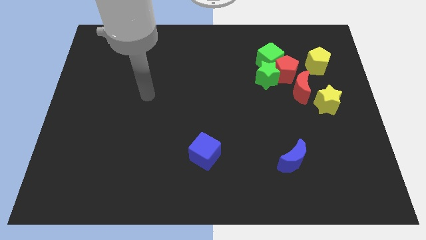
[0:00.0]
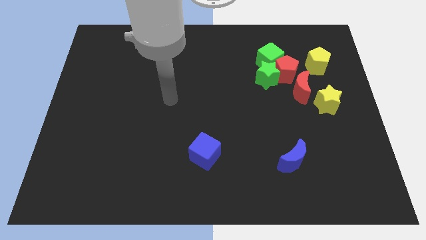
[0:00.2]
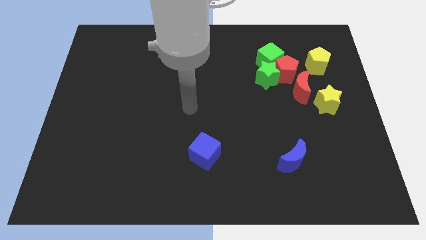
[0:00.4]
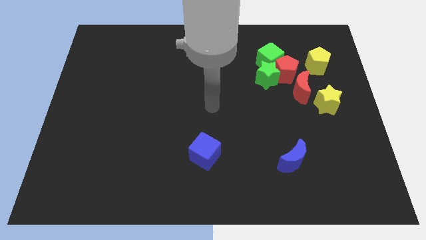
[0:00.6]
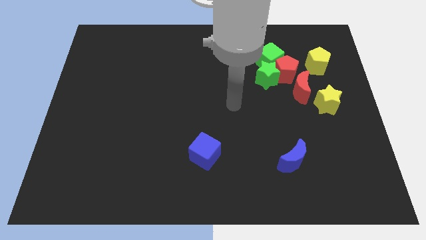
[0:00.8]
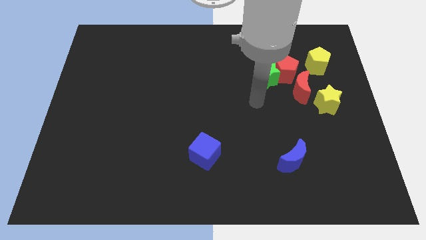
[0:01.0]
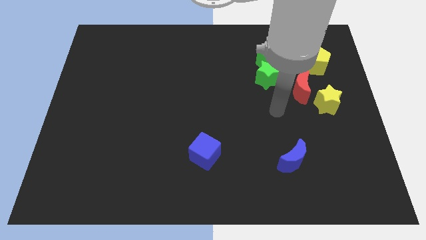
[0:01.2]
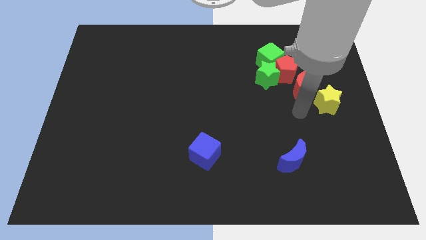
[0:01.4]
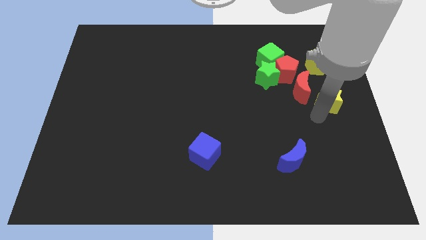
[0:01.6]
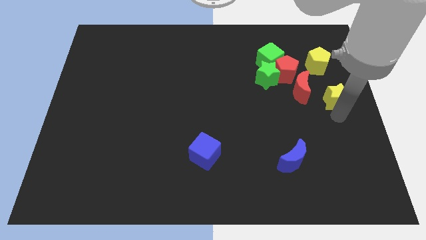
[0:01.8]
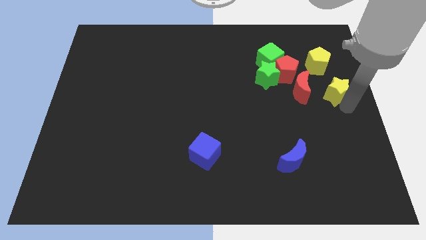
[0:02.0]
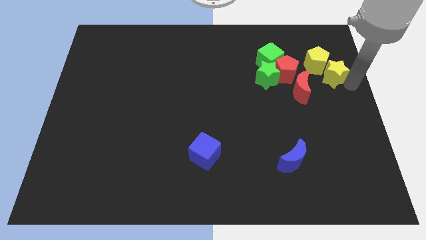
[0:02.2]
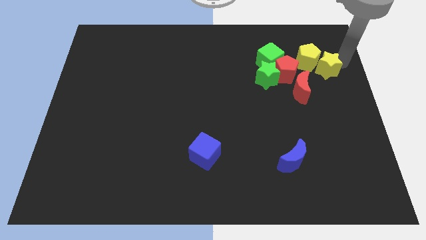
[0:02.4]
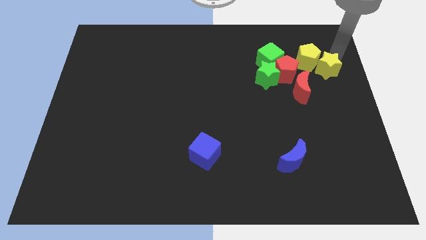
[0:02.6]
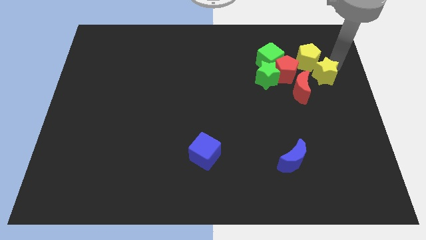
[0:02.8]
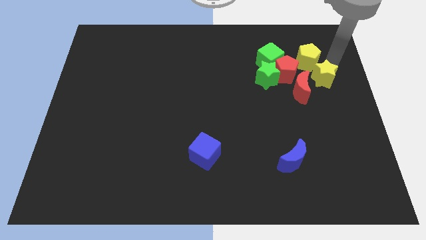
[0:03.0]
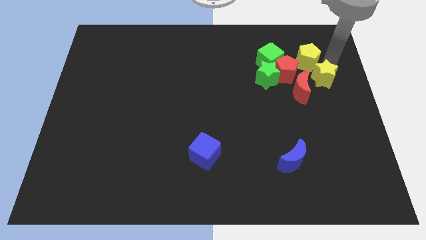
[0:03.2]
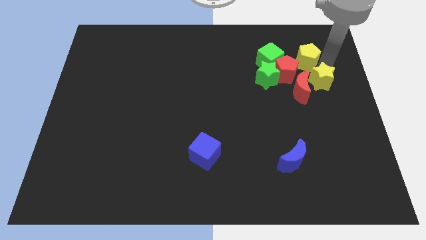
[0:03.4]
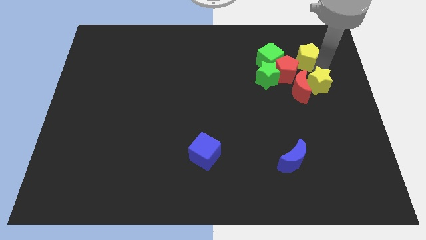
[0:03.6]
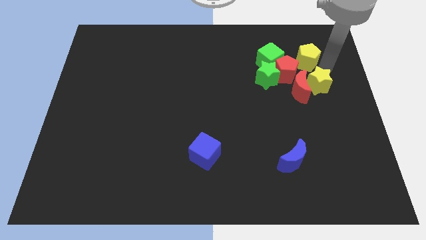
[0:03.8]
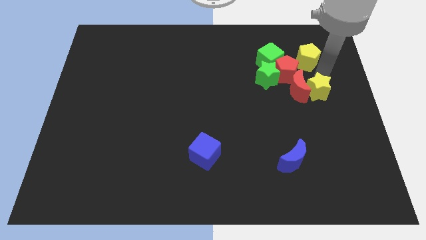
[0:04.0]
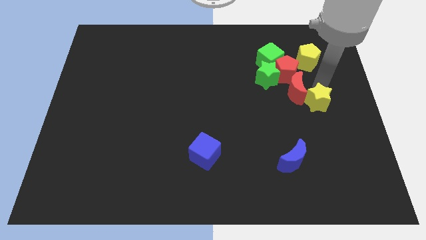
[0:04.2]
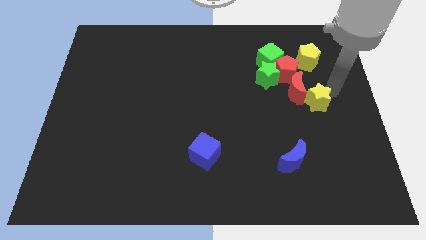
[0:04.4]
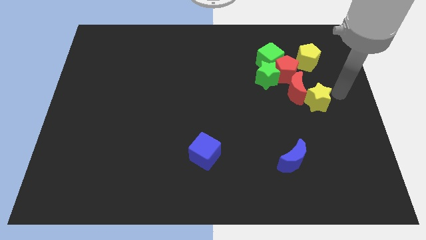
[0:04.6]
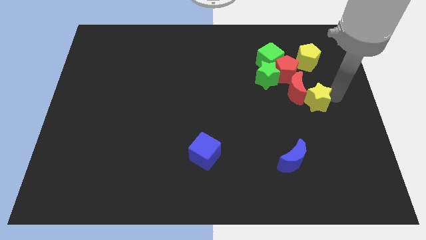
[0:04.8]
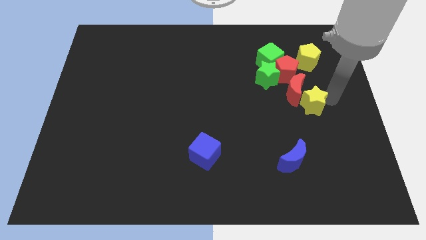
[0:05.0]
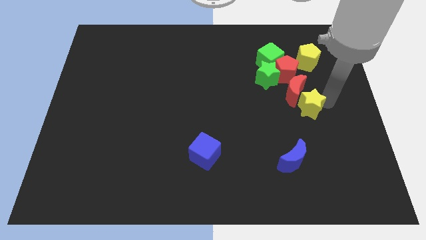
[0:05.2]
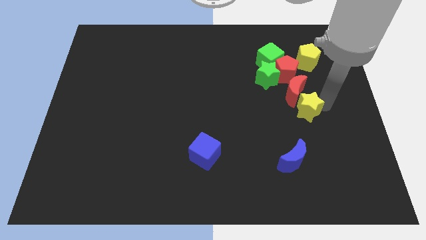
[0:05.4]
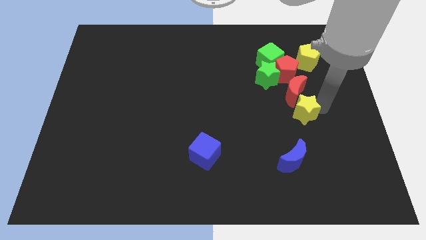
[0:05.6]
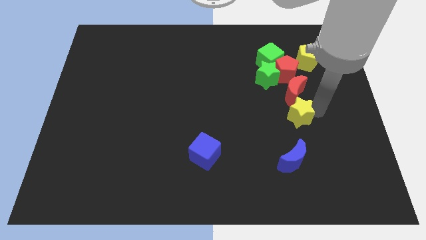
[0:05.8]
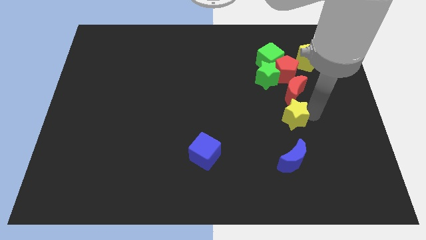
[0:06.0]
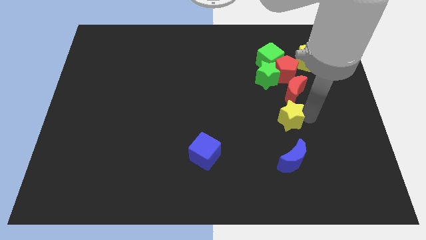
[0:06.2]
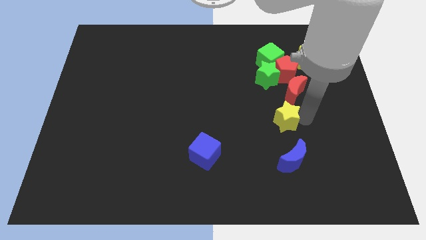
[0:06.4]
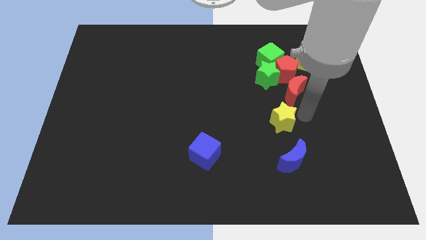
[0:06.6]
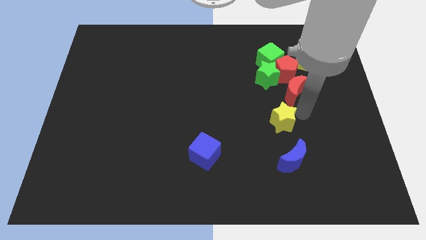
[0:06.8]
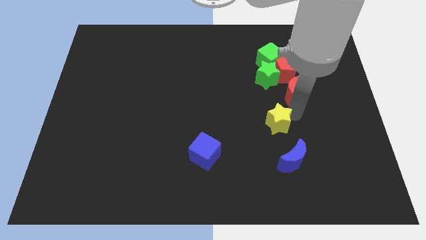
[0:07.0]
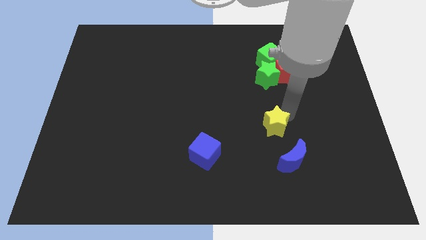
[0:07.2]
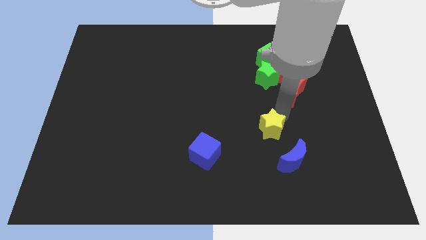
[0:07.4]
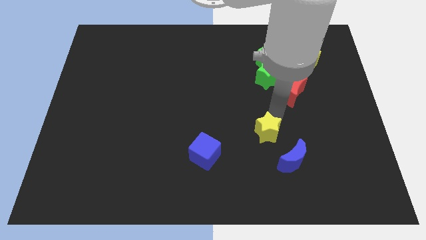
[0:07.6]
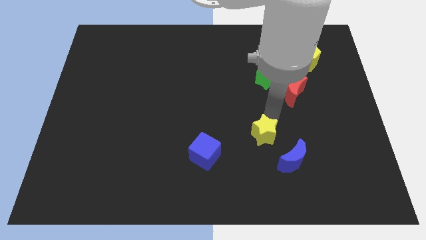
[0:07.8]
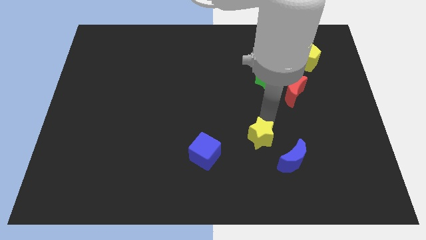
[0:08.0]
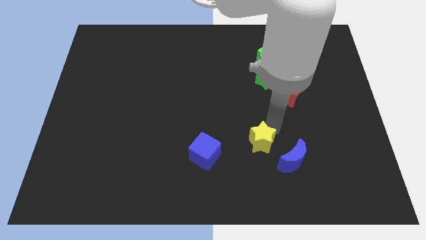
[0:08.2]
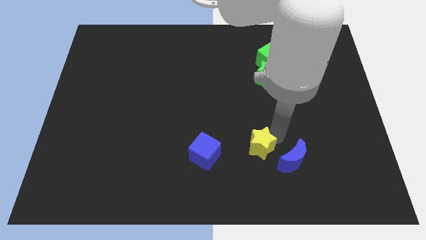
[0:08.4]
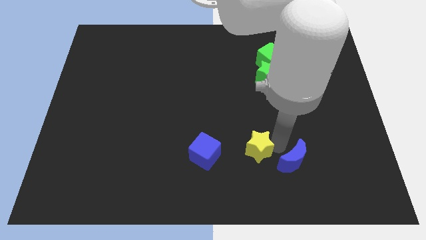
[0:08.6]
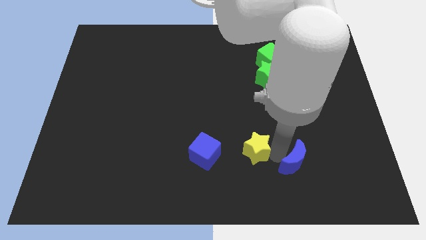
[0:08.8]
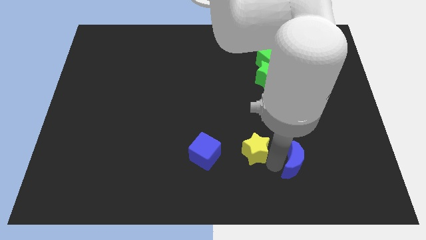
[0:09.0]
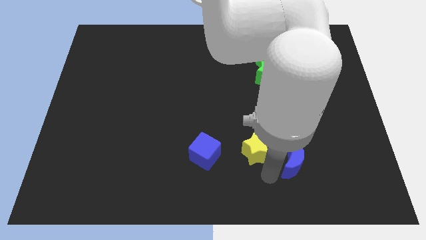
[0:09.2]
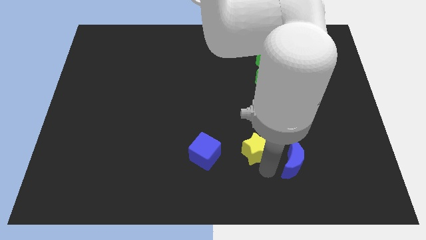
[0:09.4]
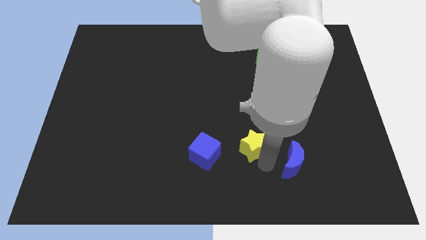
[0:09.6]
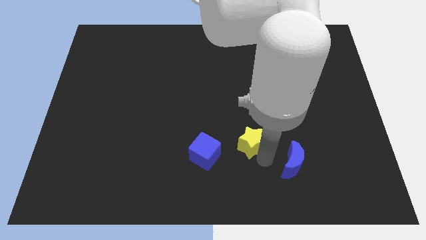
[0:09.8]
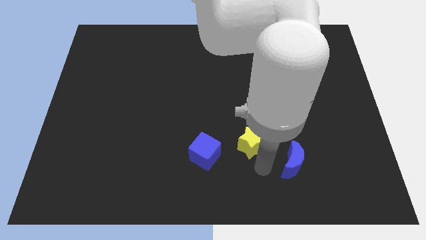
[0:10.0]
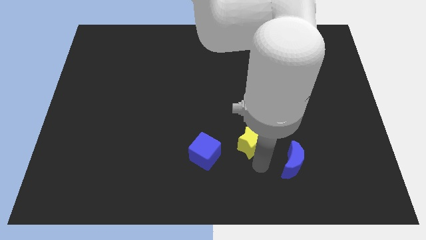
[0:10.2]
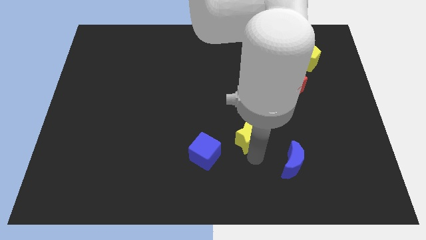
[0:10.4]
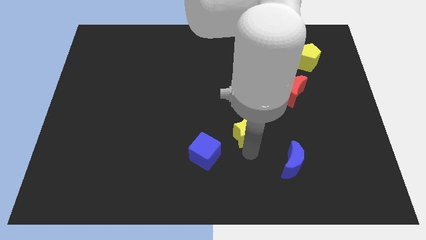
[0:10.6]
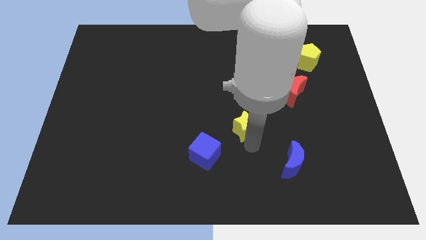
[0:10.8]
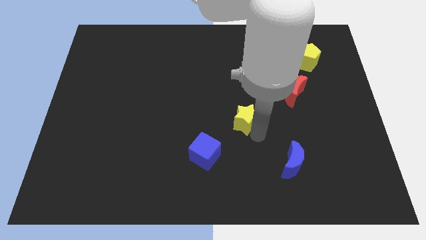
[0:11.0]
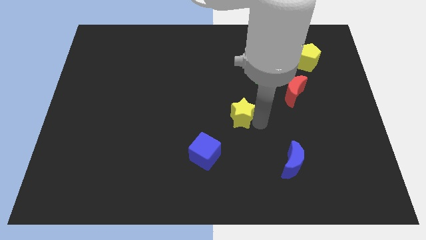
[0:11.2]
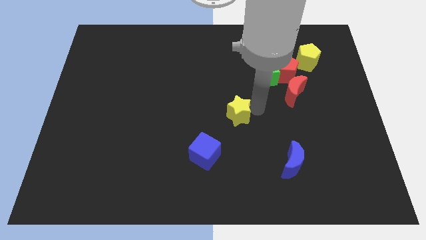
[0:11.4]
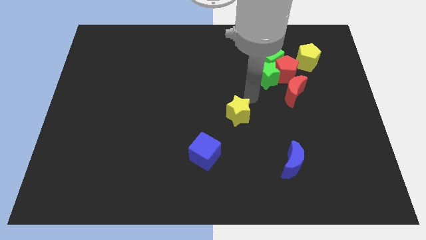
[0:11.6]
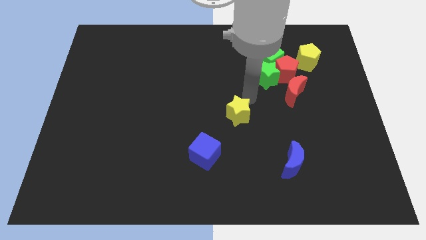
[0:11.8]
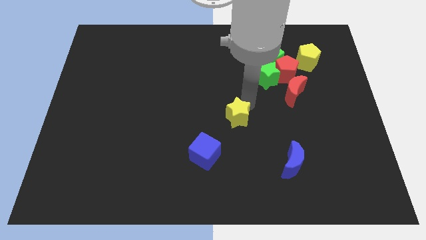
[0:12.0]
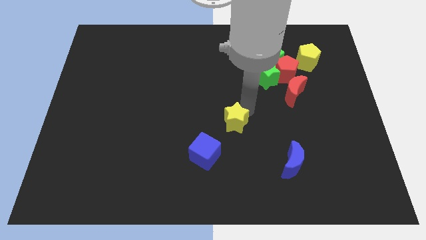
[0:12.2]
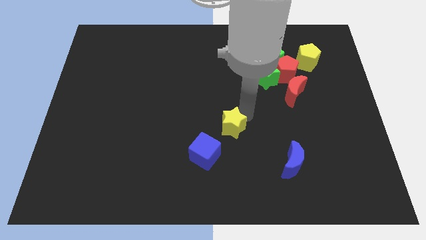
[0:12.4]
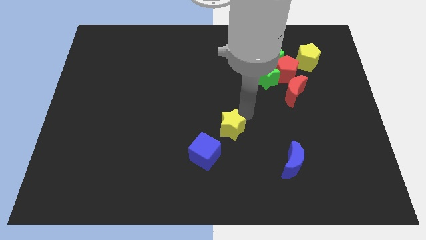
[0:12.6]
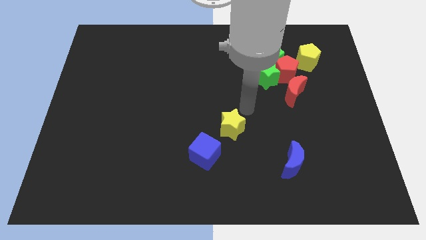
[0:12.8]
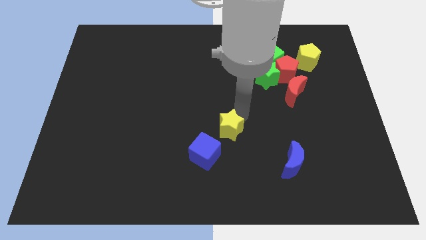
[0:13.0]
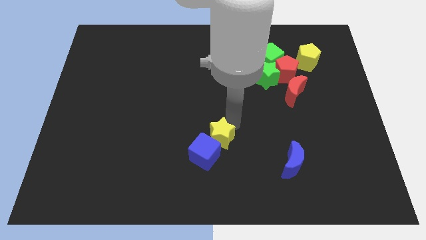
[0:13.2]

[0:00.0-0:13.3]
move the yellow star to the blue cube
